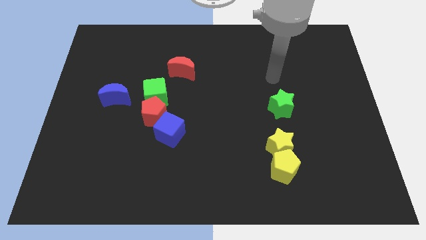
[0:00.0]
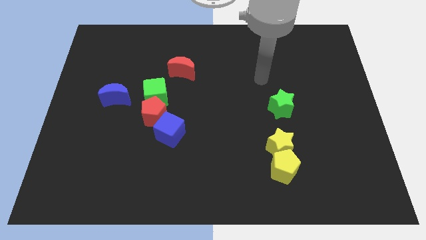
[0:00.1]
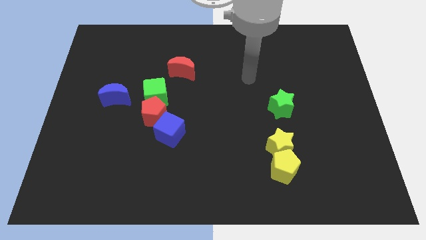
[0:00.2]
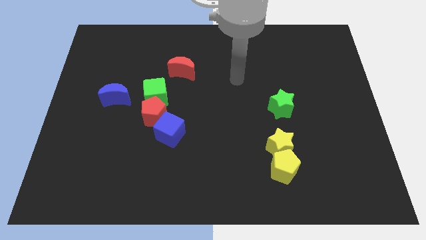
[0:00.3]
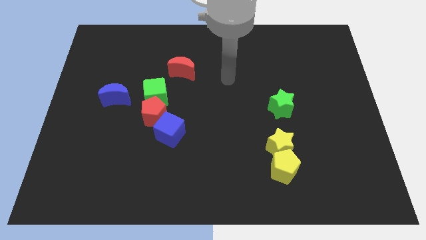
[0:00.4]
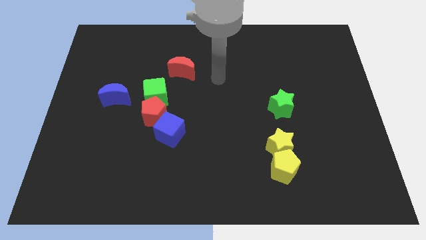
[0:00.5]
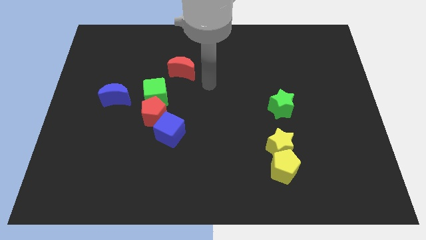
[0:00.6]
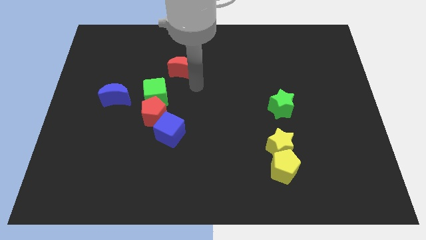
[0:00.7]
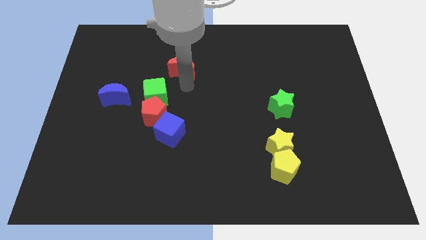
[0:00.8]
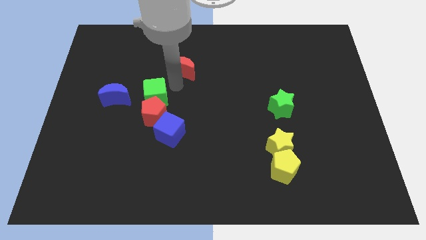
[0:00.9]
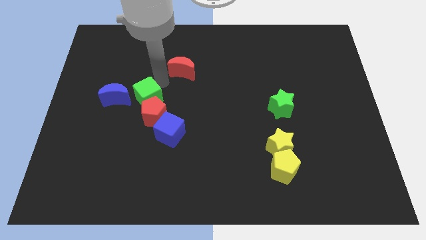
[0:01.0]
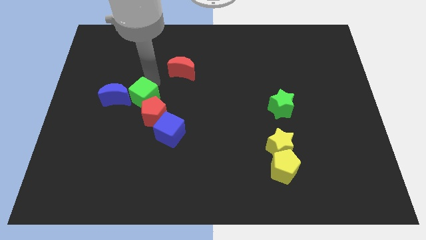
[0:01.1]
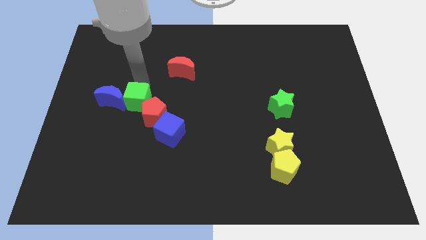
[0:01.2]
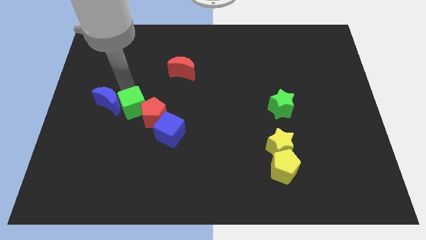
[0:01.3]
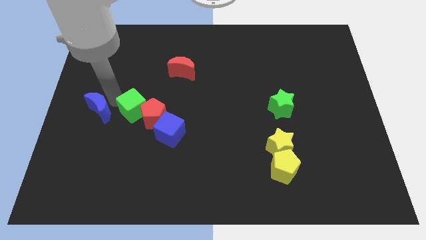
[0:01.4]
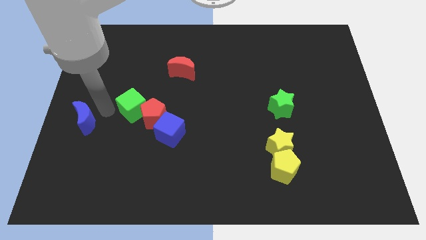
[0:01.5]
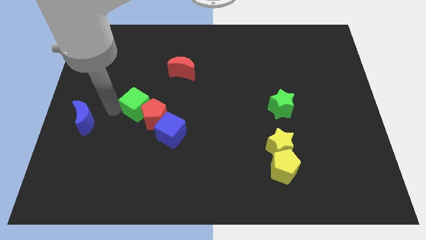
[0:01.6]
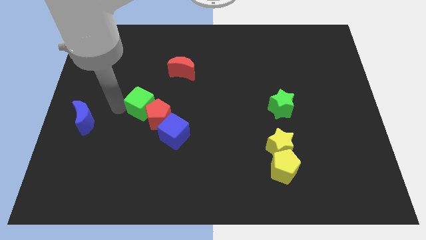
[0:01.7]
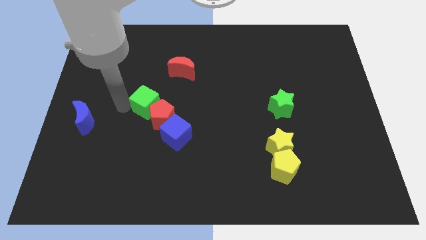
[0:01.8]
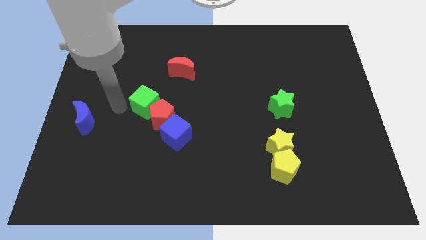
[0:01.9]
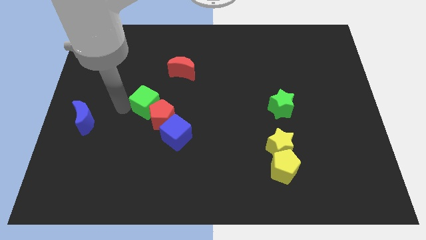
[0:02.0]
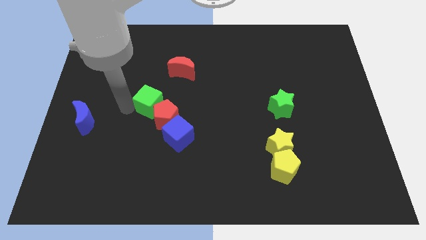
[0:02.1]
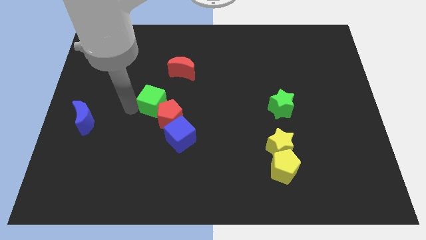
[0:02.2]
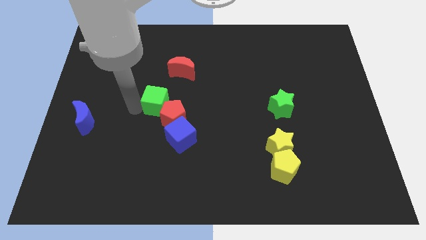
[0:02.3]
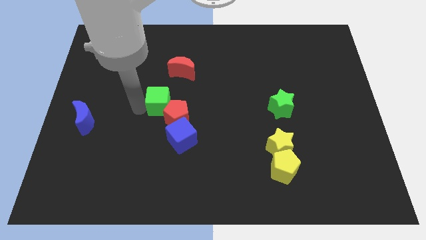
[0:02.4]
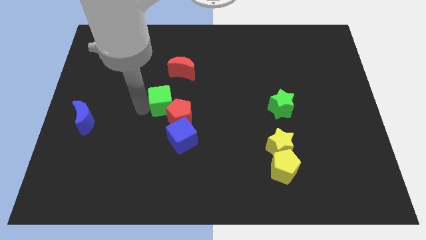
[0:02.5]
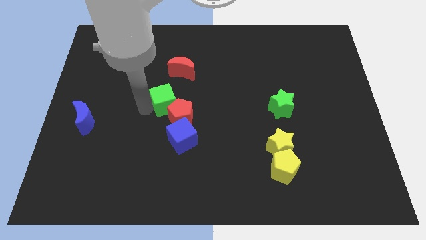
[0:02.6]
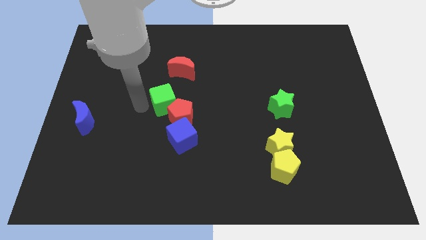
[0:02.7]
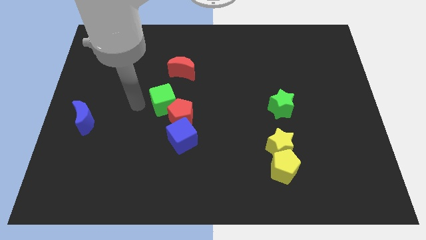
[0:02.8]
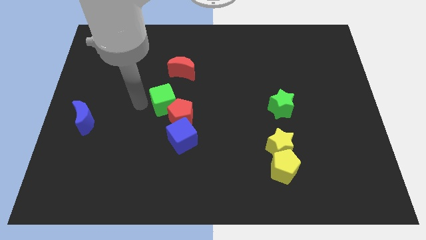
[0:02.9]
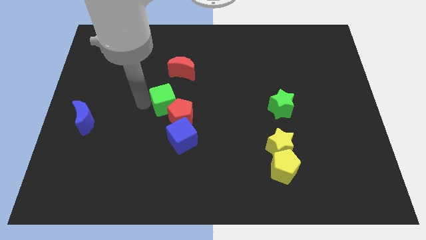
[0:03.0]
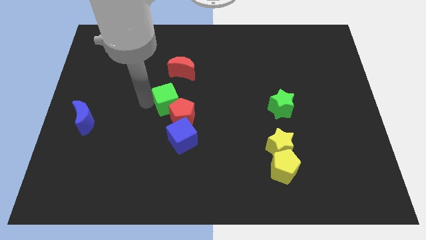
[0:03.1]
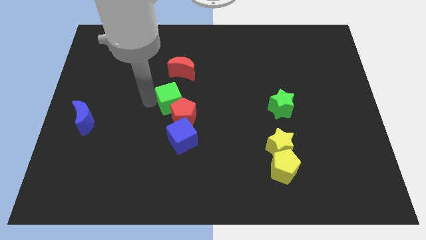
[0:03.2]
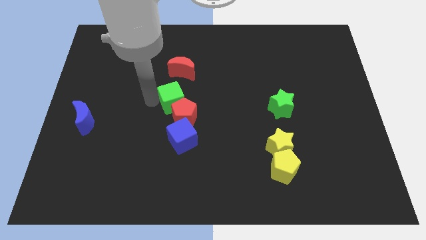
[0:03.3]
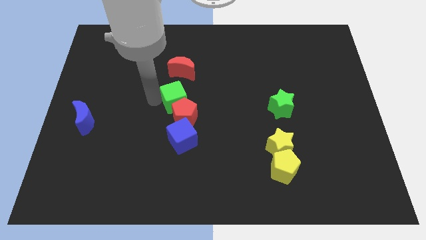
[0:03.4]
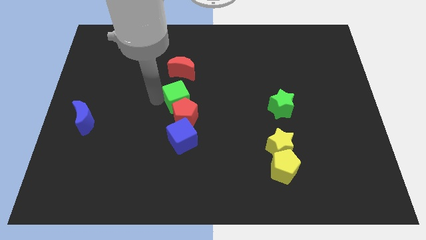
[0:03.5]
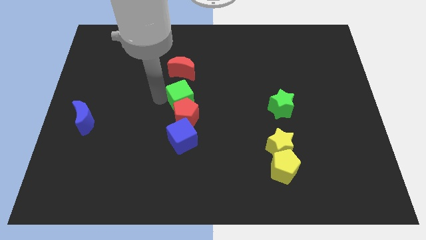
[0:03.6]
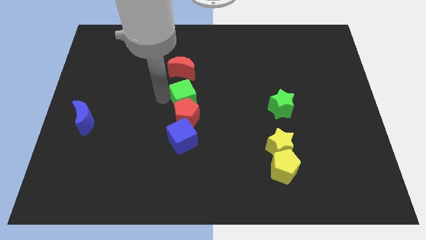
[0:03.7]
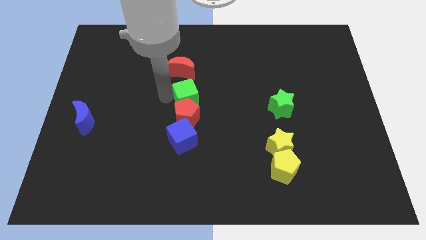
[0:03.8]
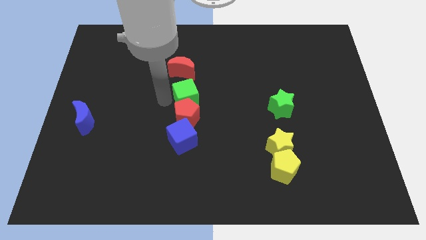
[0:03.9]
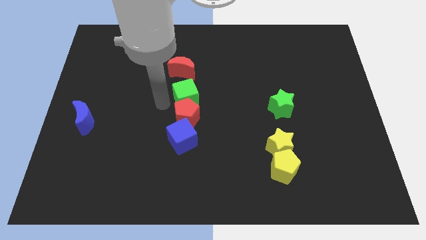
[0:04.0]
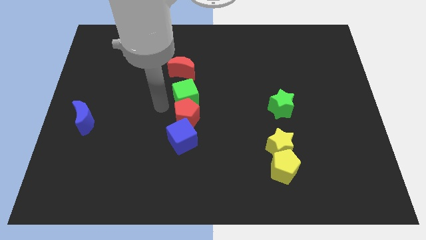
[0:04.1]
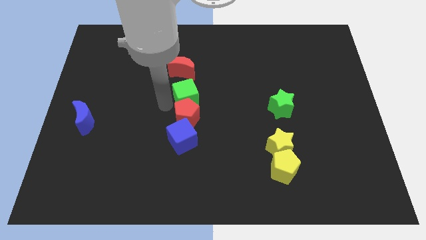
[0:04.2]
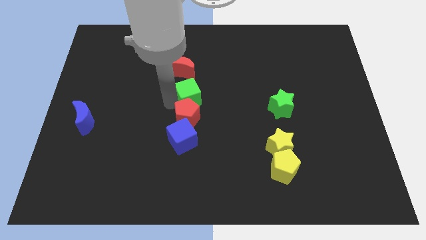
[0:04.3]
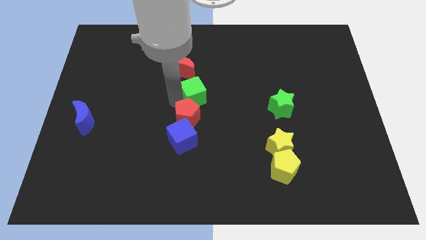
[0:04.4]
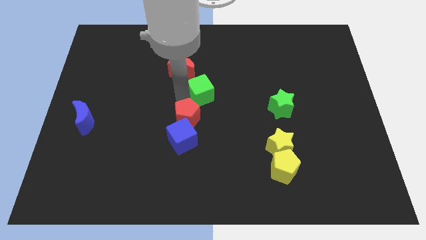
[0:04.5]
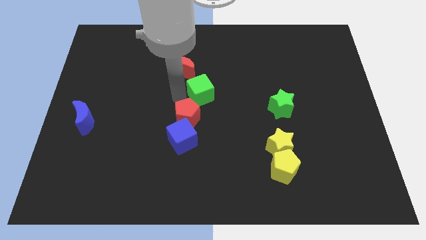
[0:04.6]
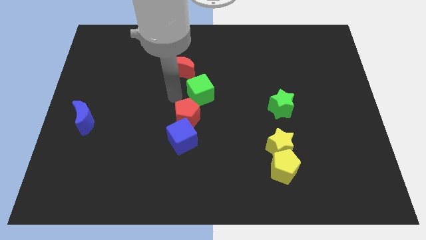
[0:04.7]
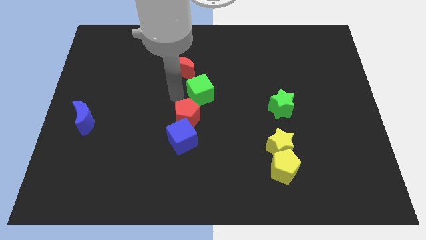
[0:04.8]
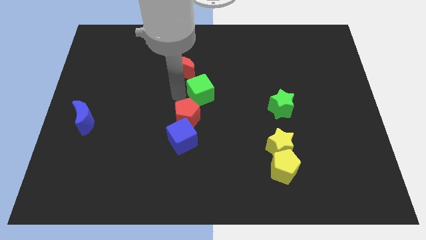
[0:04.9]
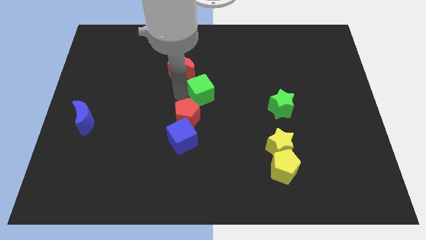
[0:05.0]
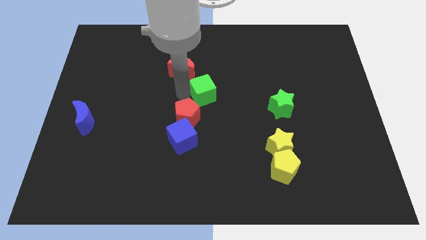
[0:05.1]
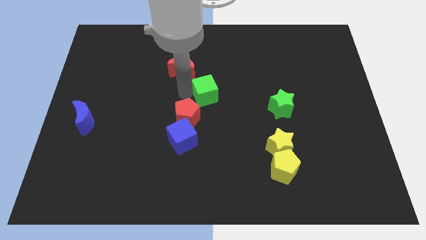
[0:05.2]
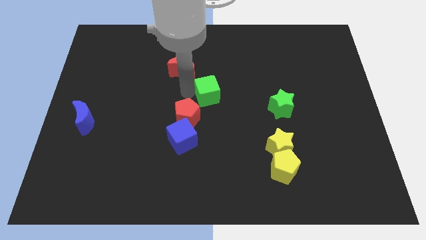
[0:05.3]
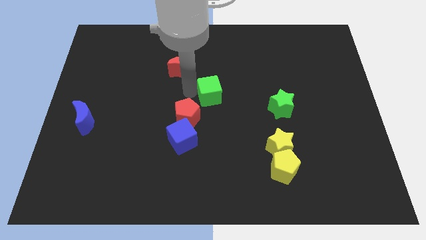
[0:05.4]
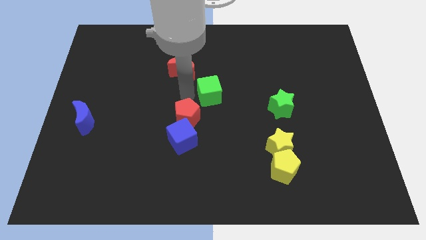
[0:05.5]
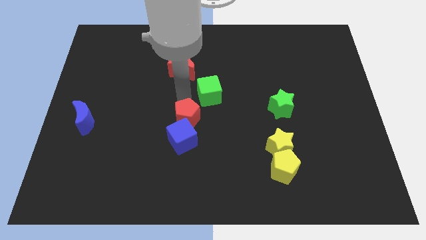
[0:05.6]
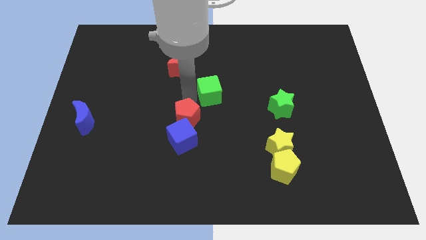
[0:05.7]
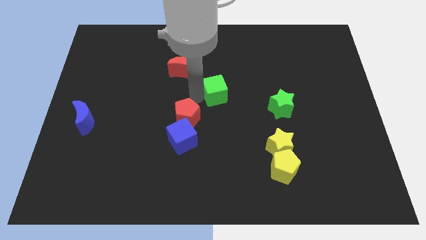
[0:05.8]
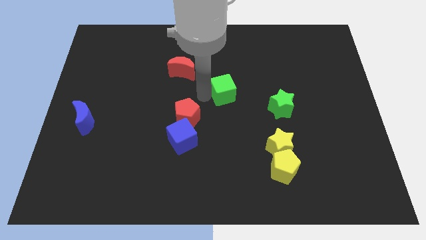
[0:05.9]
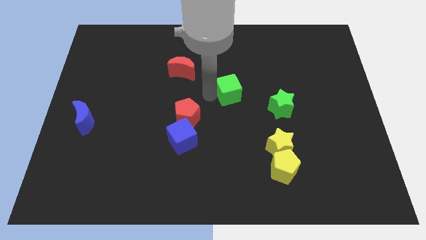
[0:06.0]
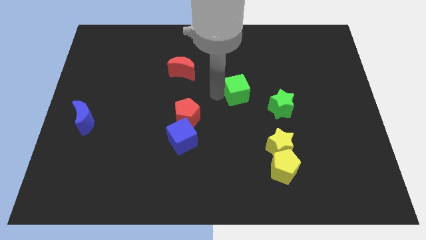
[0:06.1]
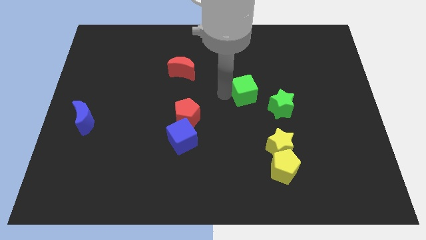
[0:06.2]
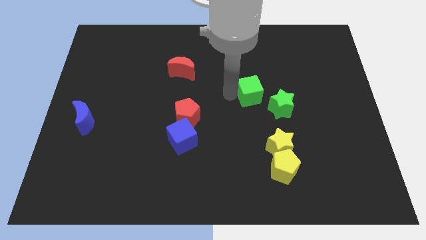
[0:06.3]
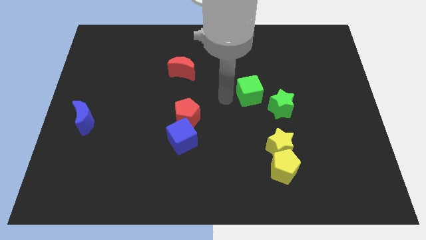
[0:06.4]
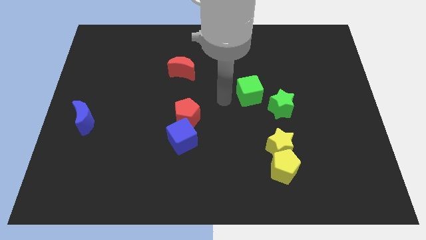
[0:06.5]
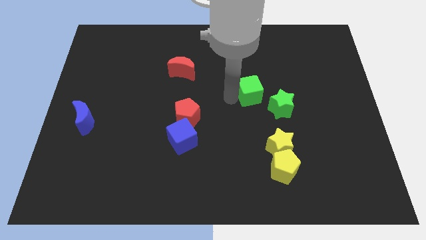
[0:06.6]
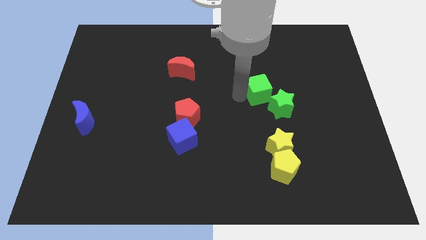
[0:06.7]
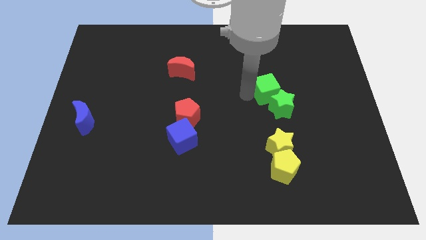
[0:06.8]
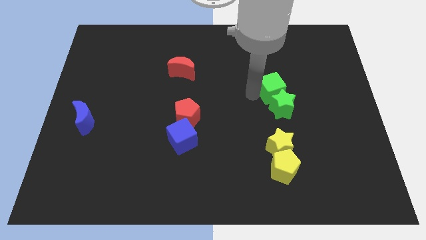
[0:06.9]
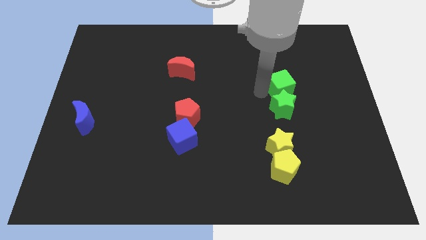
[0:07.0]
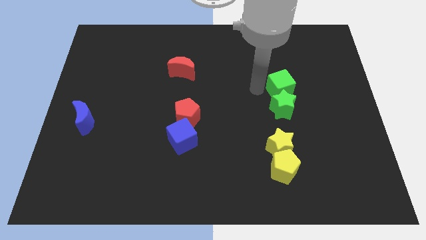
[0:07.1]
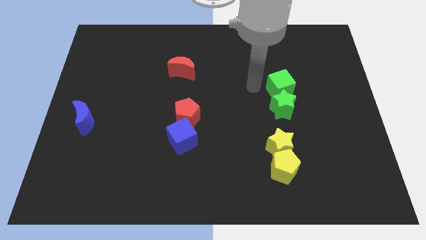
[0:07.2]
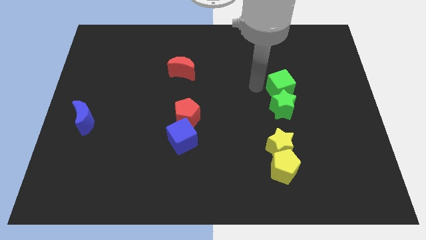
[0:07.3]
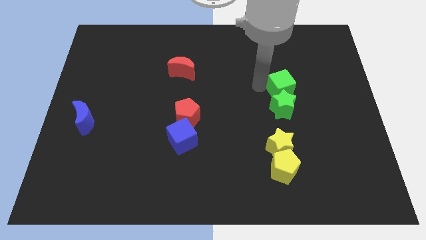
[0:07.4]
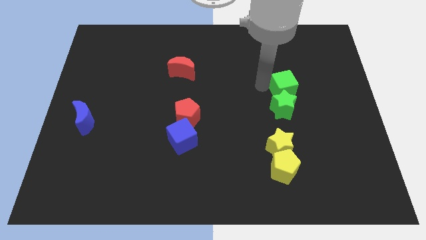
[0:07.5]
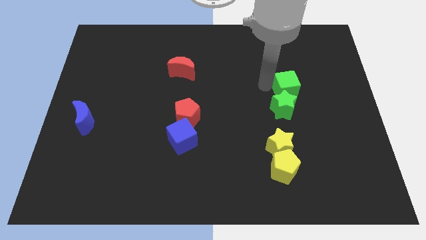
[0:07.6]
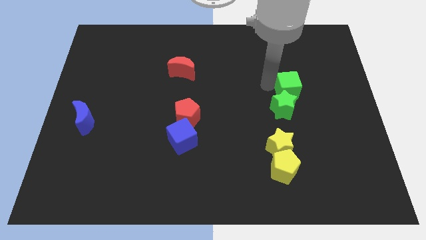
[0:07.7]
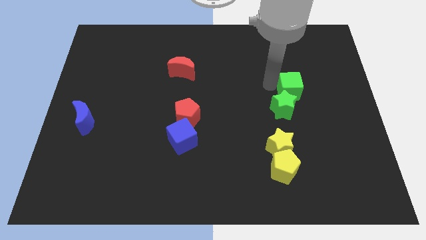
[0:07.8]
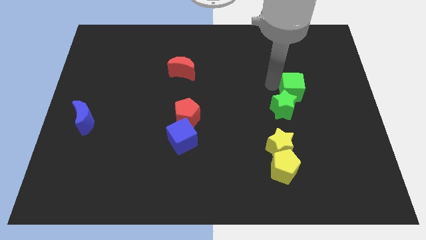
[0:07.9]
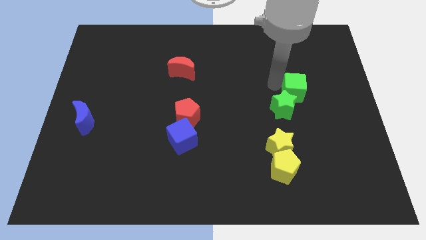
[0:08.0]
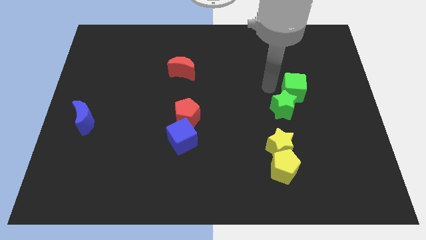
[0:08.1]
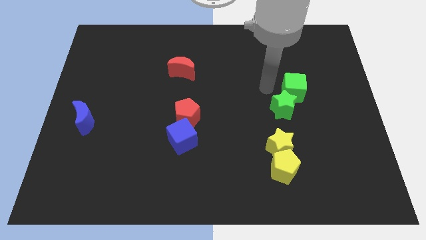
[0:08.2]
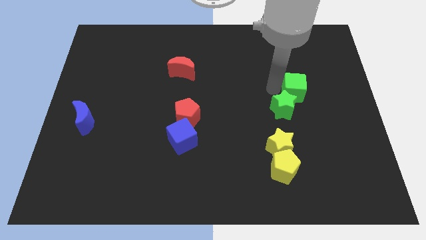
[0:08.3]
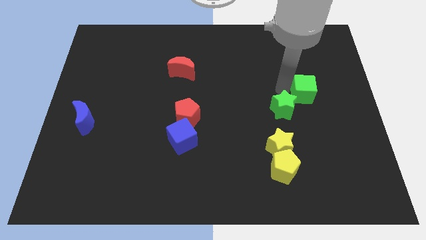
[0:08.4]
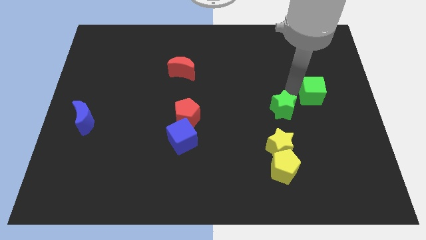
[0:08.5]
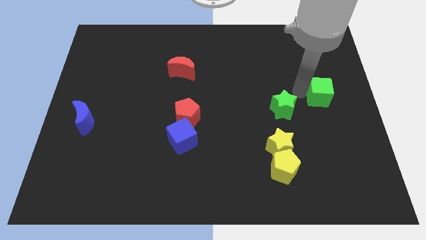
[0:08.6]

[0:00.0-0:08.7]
slide the green cube to the right side

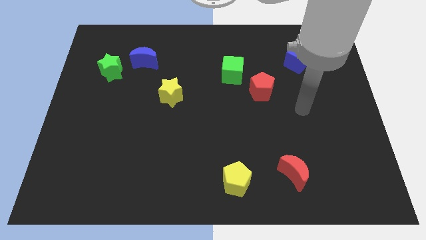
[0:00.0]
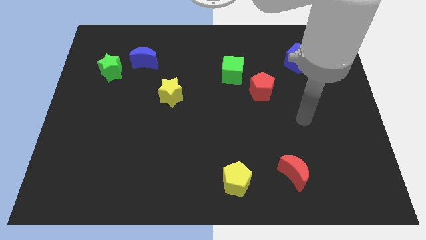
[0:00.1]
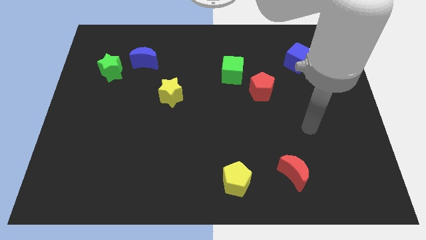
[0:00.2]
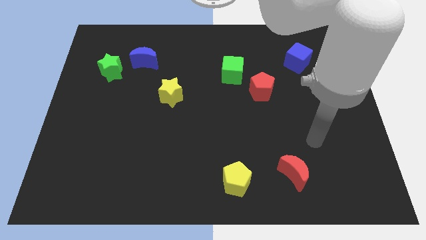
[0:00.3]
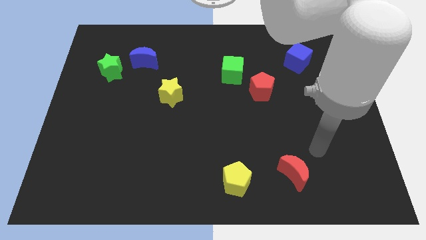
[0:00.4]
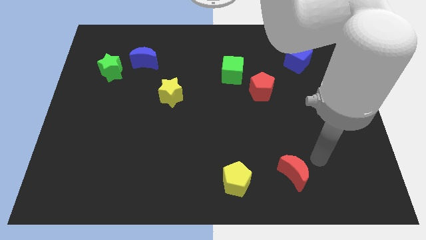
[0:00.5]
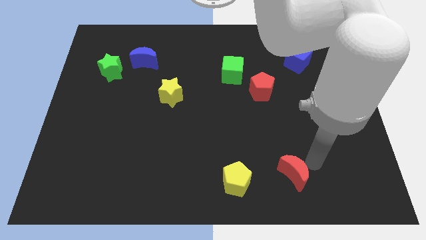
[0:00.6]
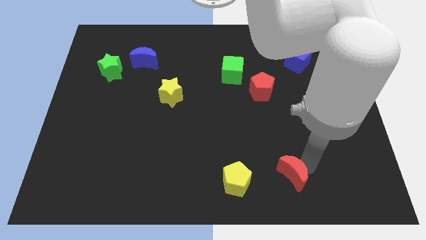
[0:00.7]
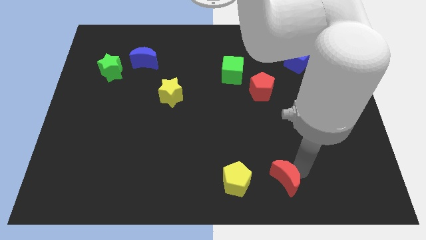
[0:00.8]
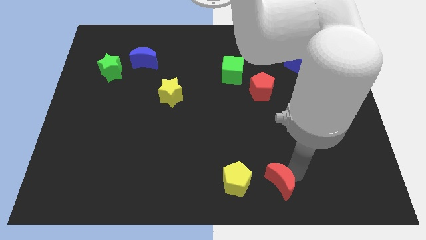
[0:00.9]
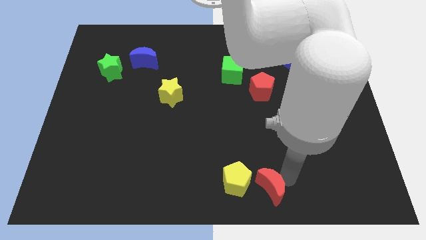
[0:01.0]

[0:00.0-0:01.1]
slide the red moon to the bottom
